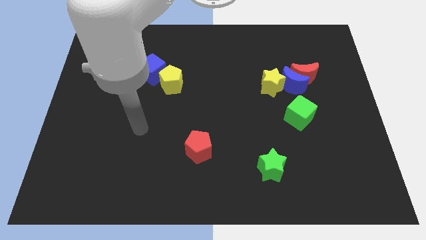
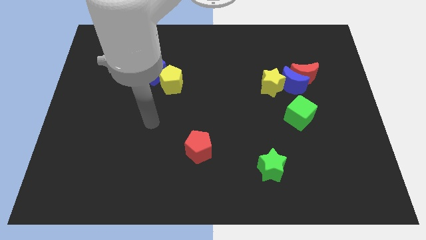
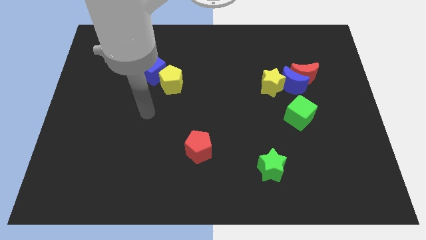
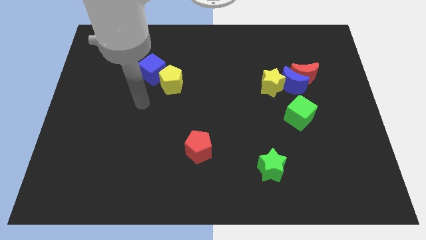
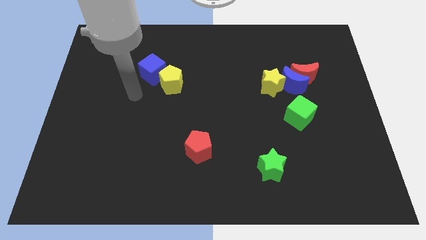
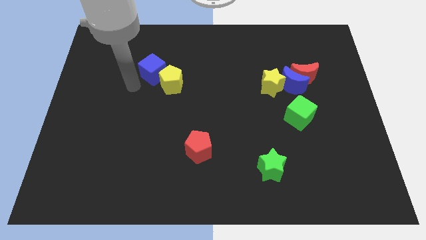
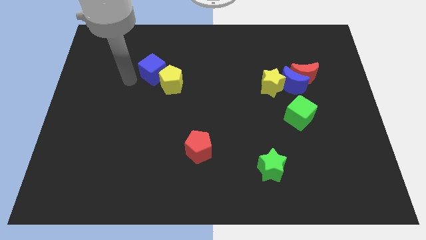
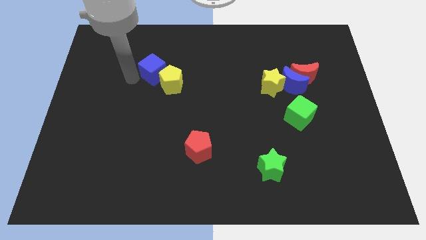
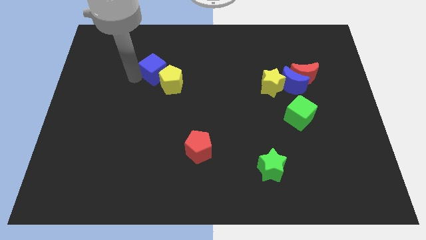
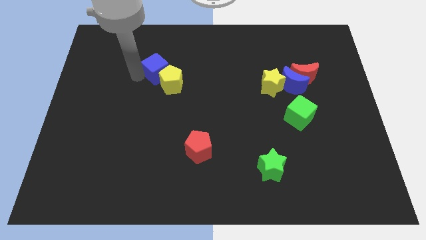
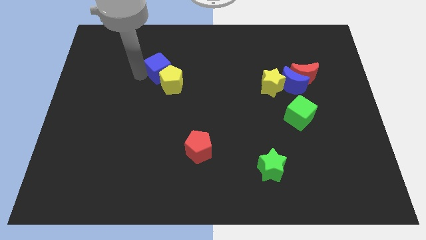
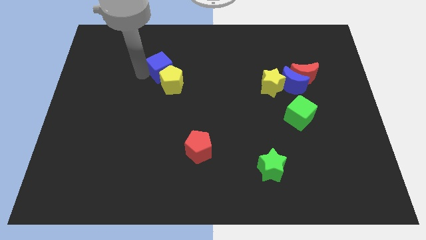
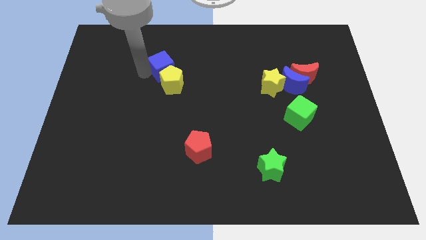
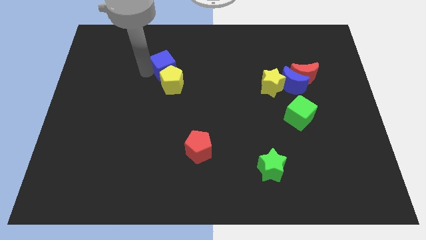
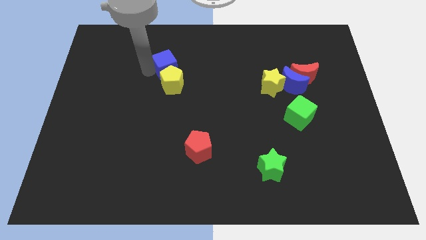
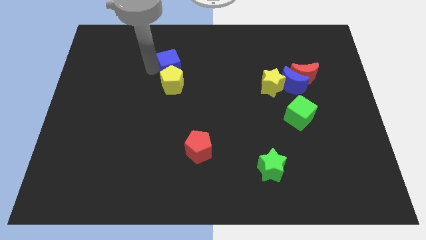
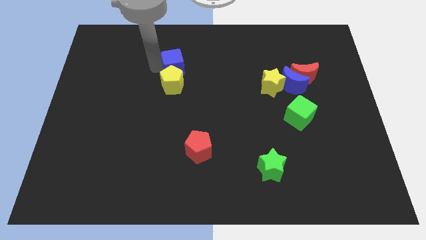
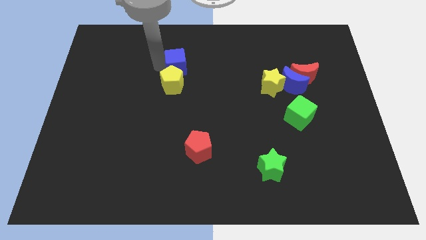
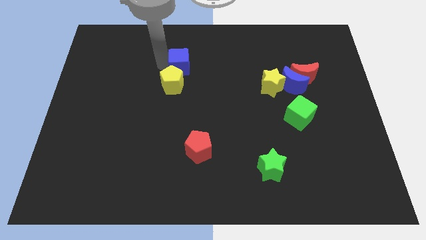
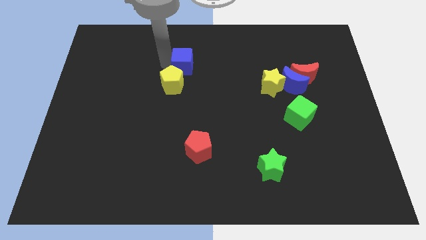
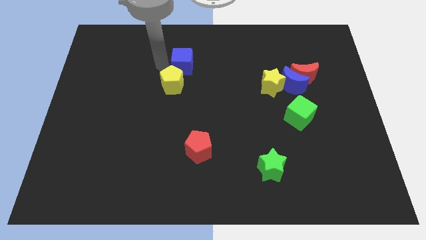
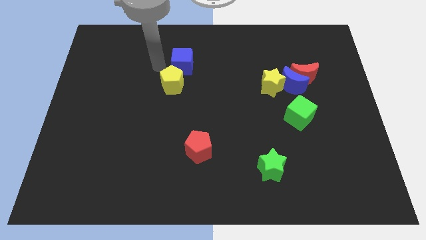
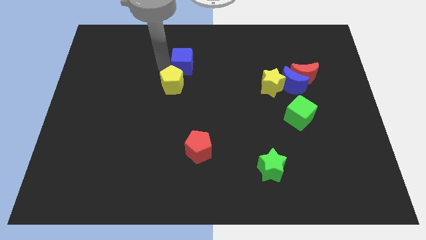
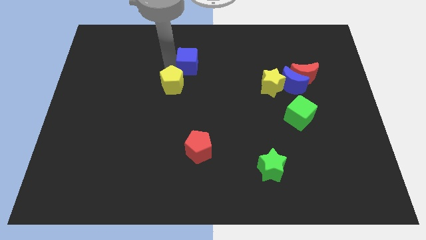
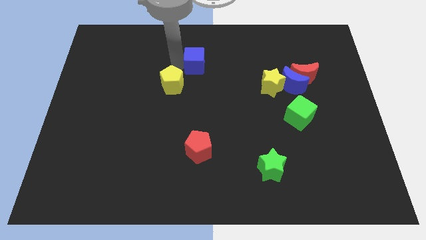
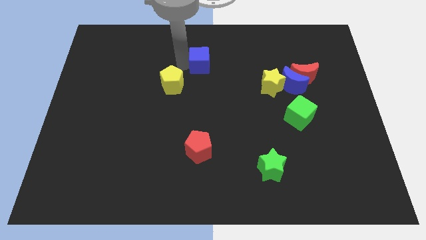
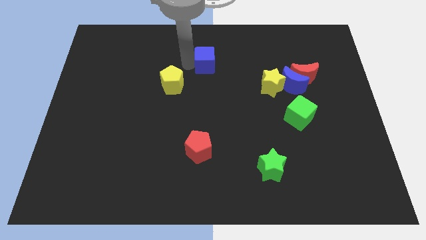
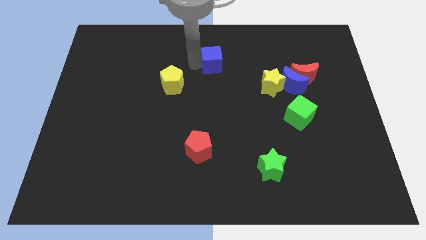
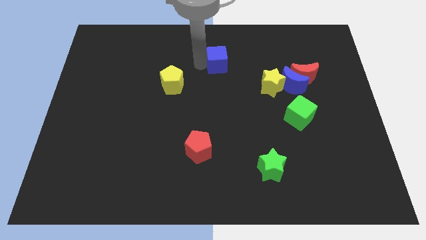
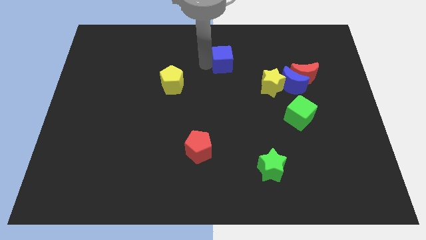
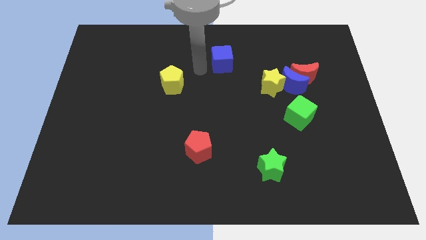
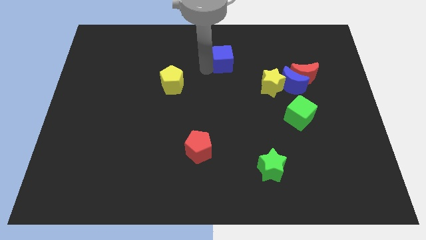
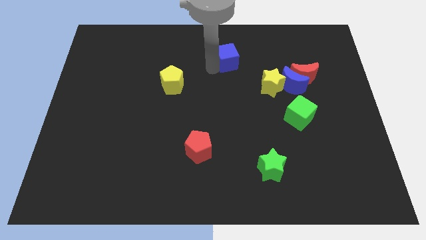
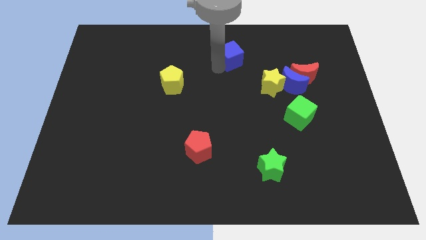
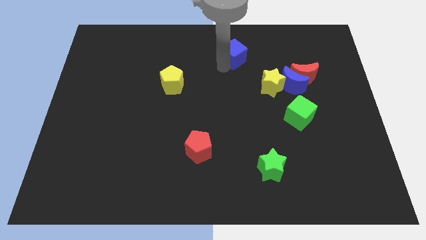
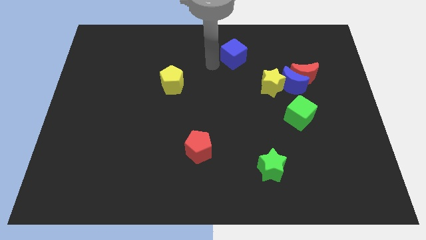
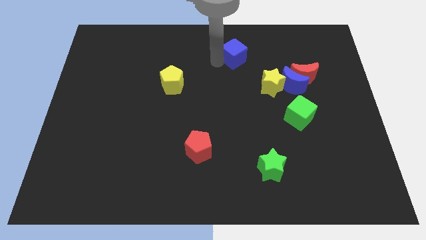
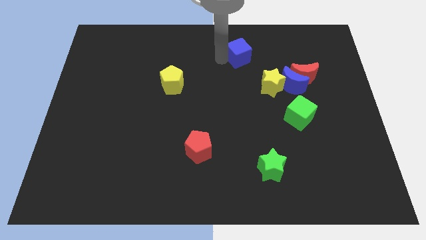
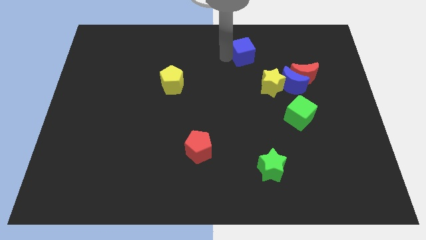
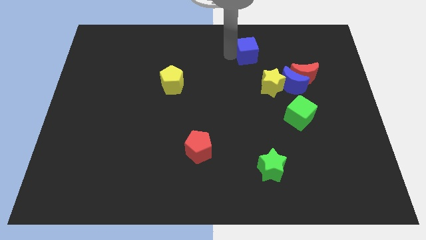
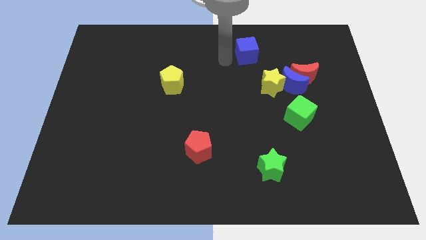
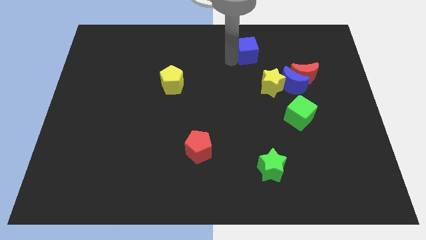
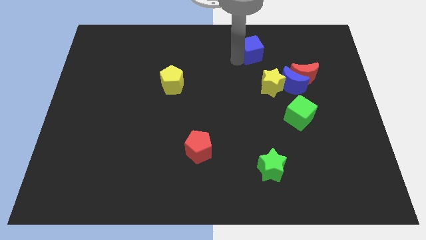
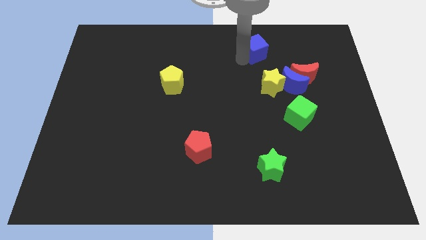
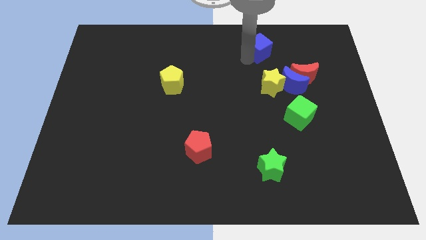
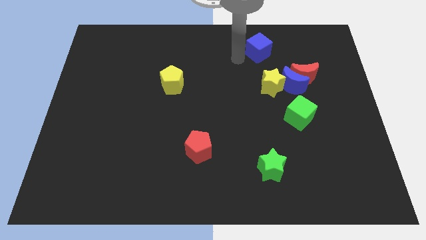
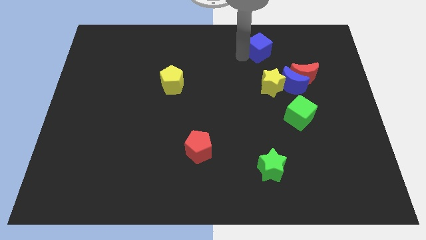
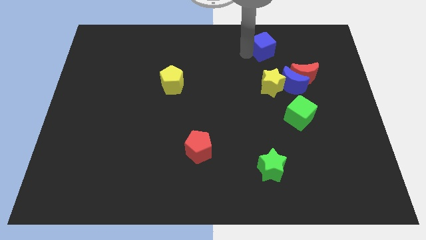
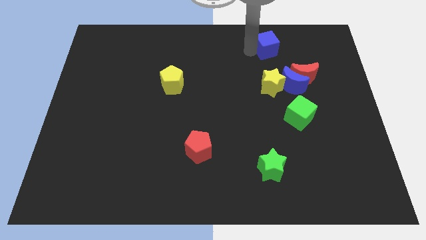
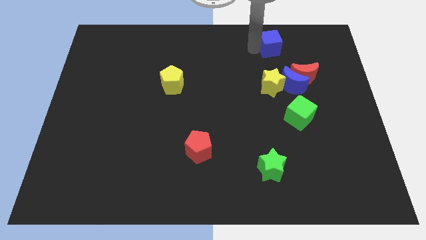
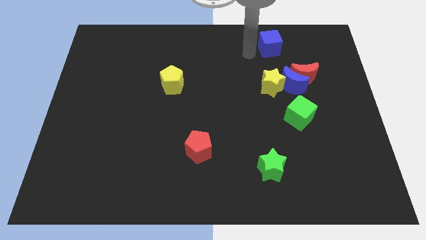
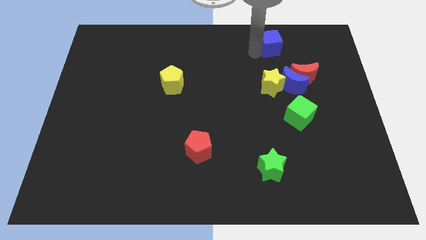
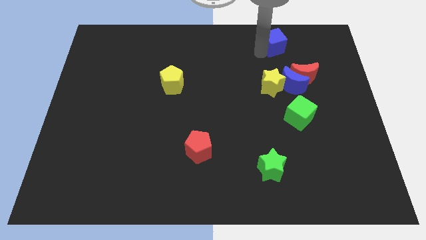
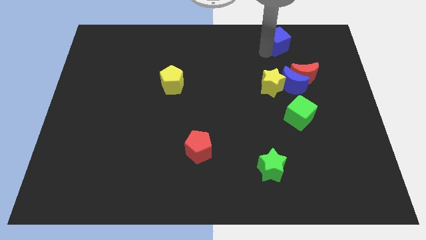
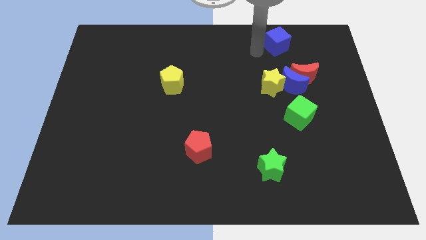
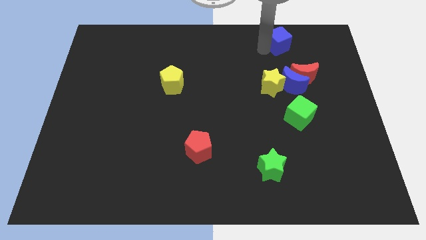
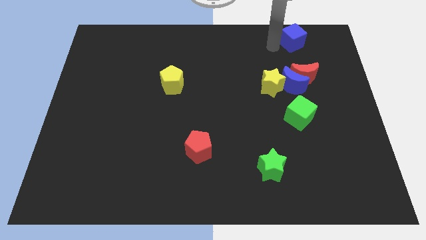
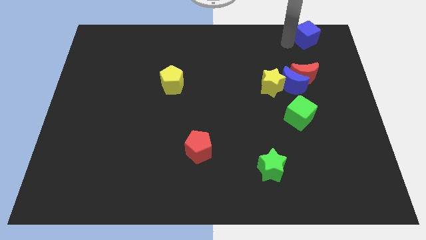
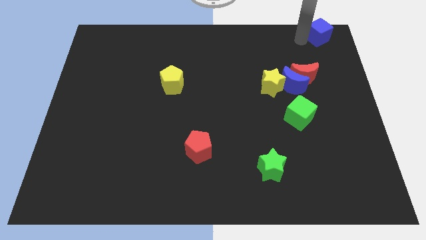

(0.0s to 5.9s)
push the blue cube to the upper right corner
